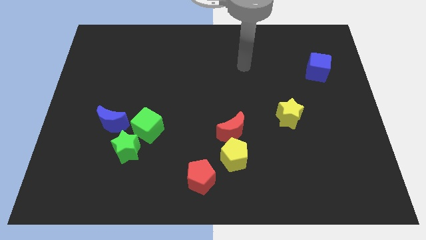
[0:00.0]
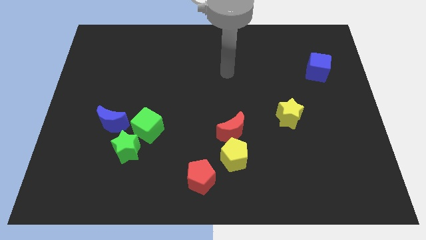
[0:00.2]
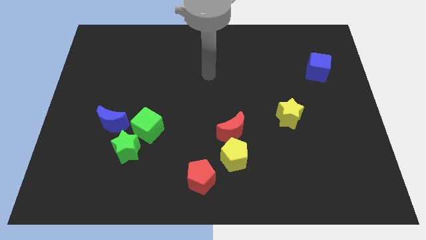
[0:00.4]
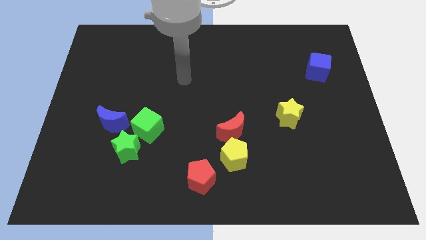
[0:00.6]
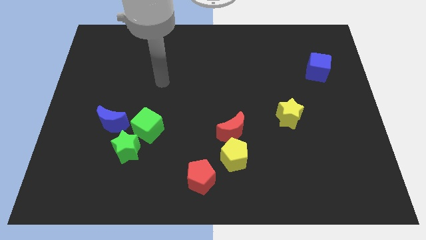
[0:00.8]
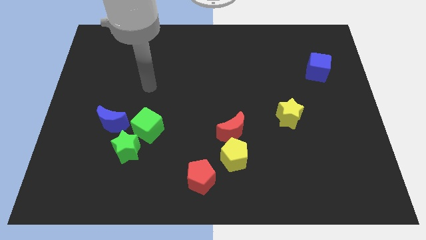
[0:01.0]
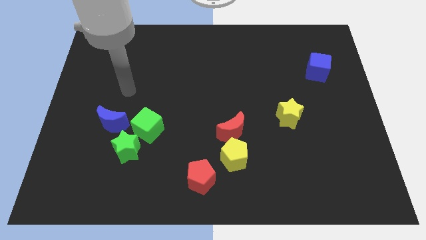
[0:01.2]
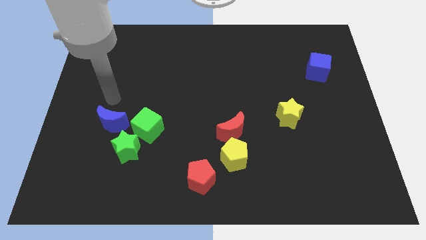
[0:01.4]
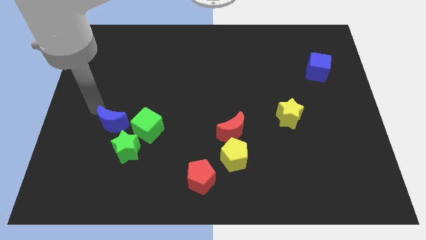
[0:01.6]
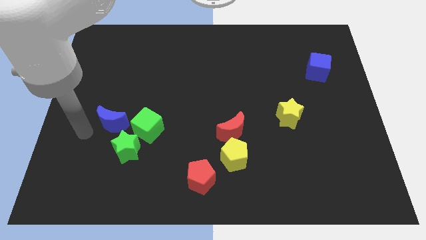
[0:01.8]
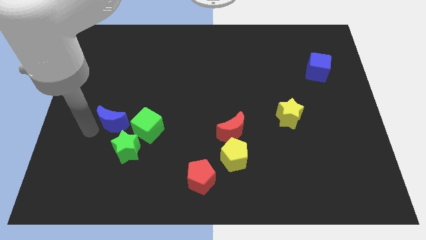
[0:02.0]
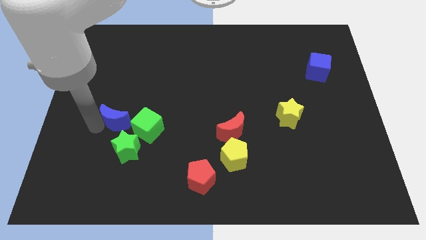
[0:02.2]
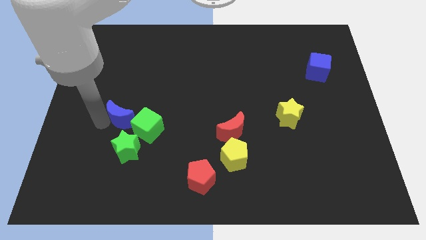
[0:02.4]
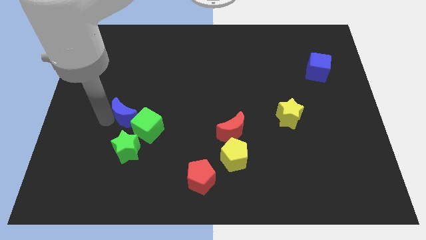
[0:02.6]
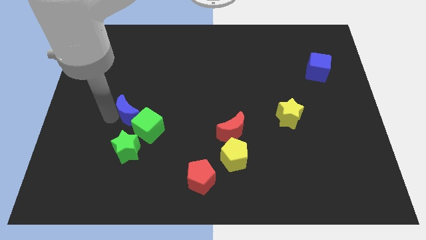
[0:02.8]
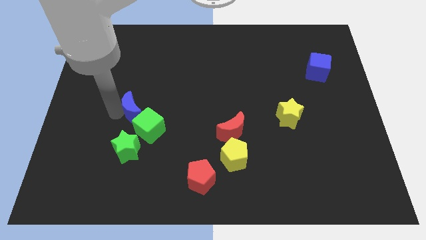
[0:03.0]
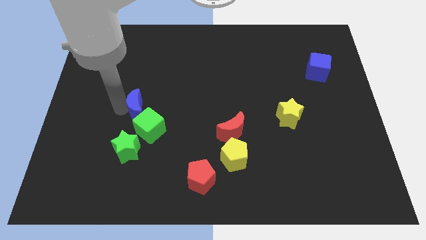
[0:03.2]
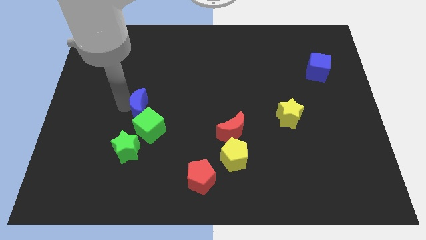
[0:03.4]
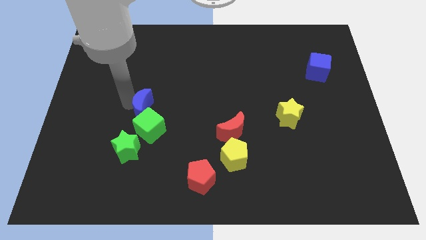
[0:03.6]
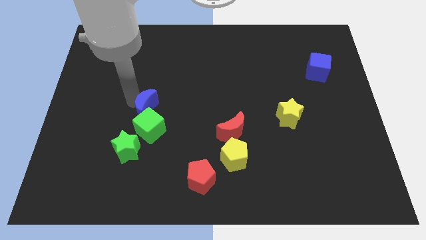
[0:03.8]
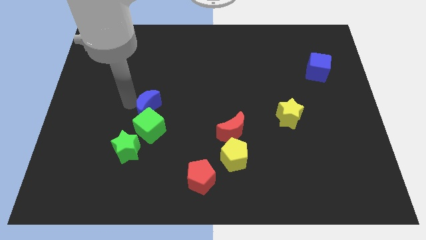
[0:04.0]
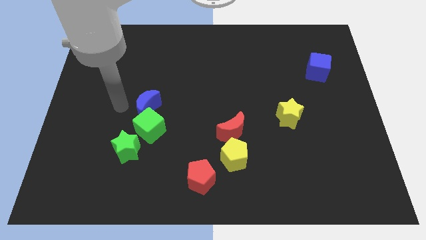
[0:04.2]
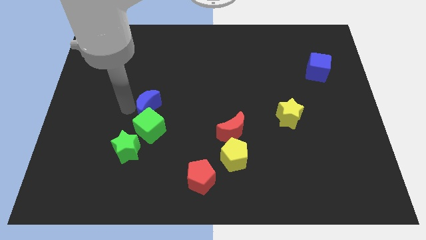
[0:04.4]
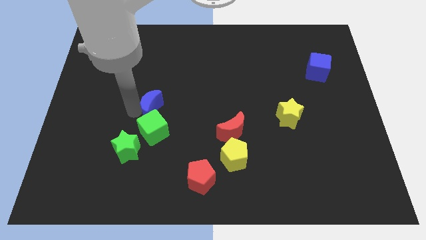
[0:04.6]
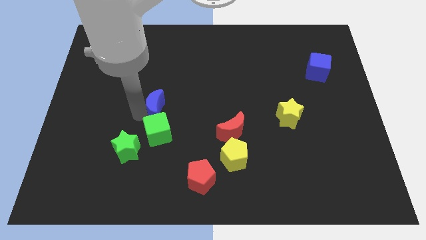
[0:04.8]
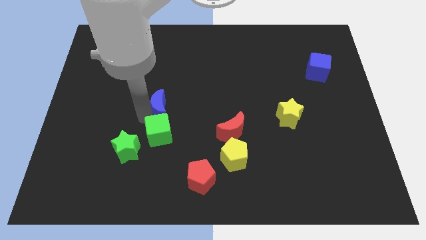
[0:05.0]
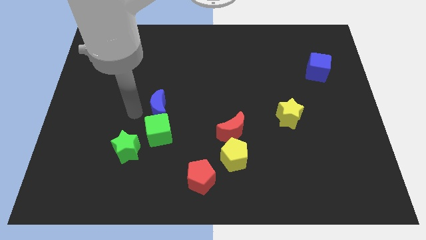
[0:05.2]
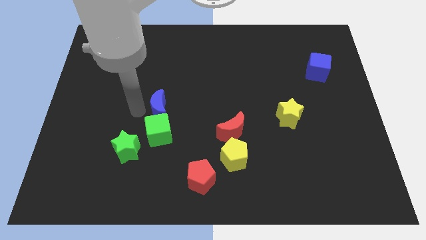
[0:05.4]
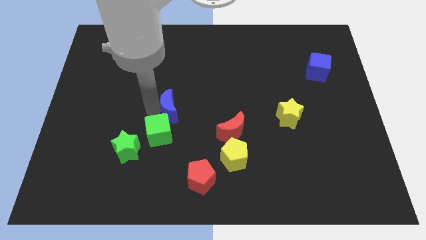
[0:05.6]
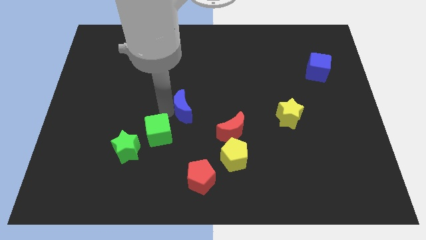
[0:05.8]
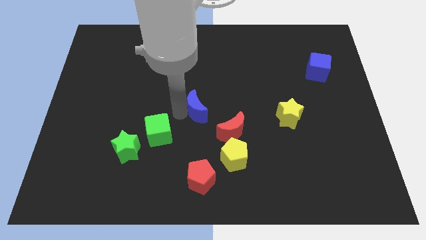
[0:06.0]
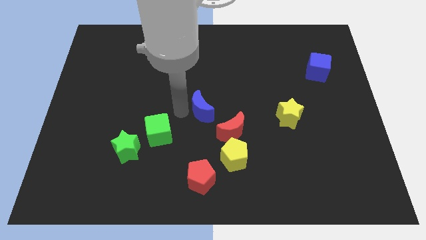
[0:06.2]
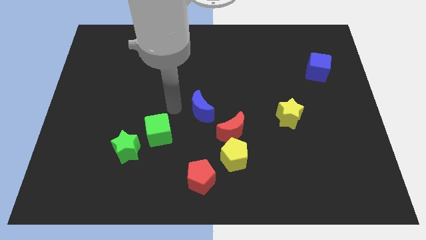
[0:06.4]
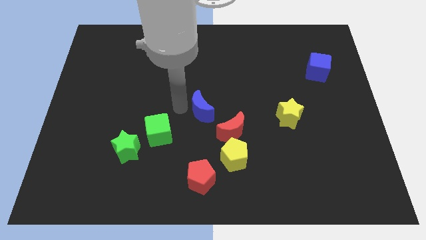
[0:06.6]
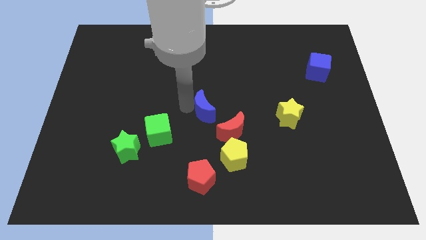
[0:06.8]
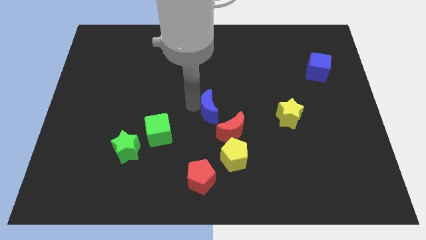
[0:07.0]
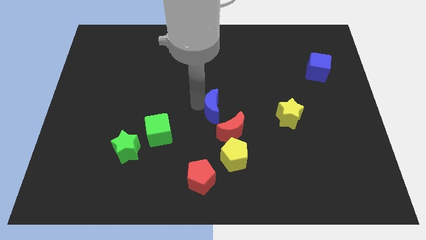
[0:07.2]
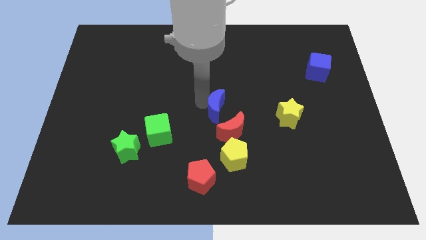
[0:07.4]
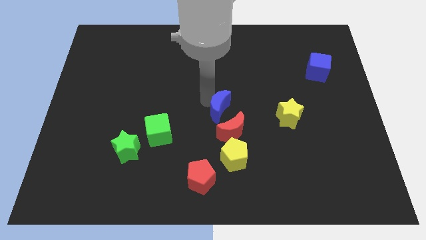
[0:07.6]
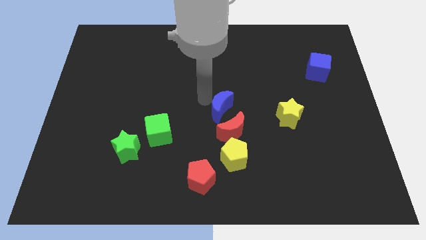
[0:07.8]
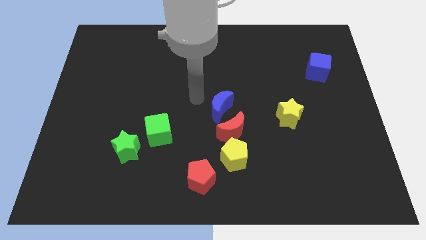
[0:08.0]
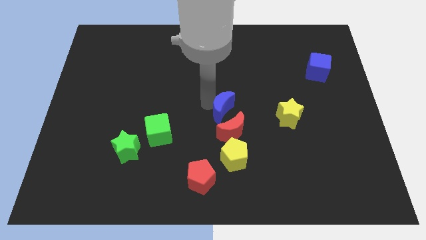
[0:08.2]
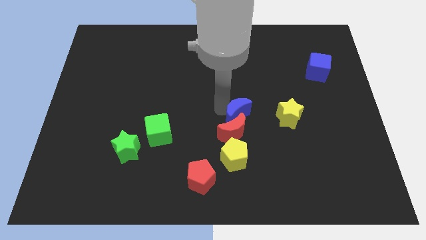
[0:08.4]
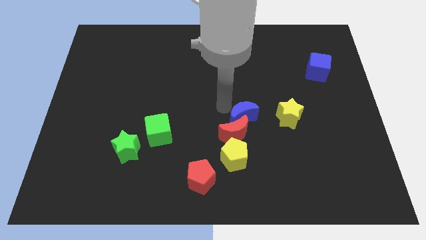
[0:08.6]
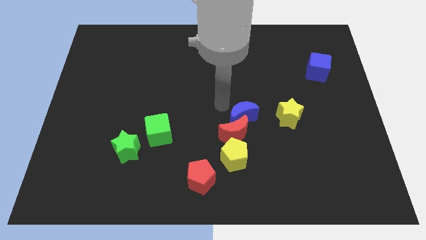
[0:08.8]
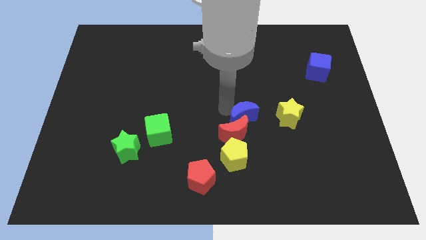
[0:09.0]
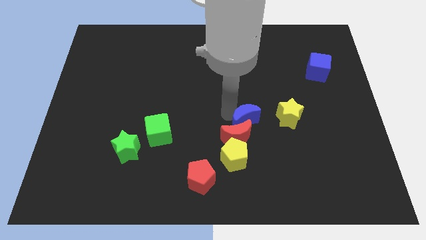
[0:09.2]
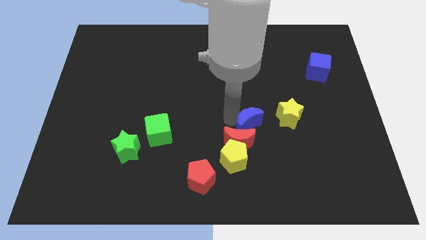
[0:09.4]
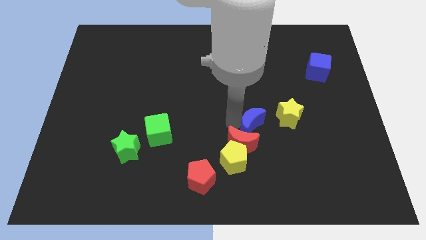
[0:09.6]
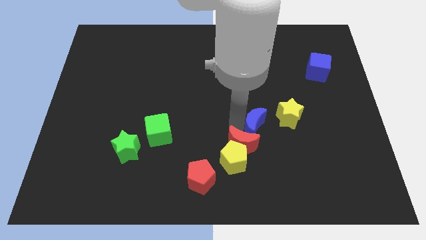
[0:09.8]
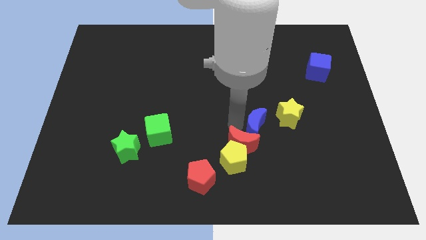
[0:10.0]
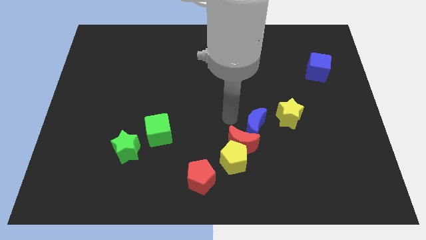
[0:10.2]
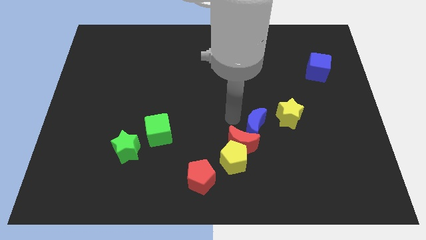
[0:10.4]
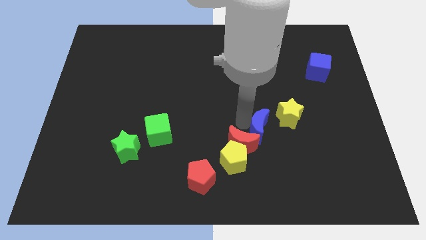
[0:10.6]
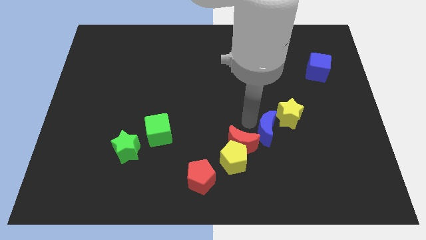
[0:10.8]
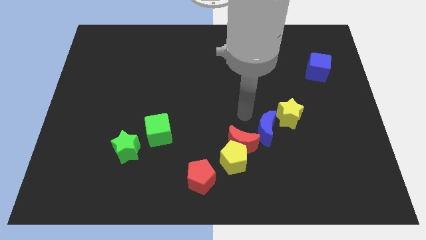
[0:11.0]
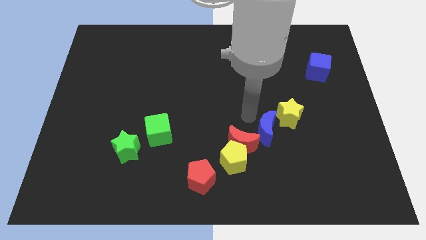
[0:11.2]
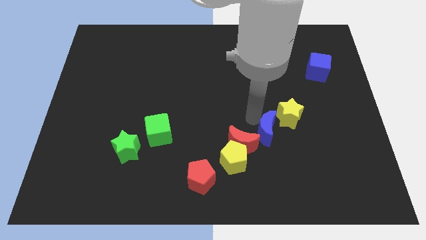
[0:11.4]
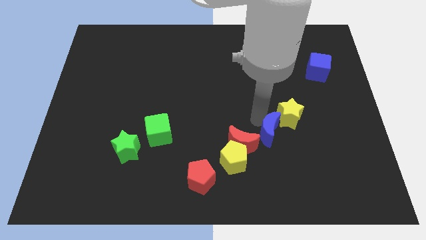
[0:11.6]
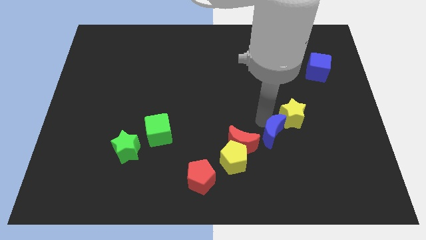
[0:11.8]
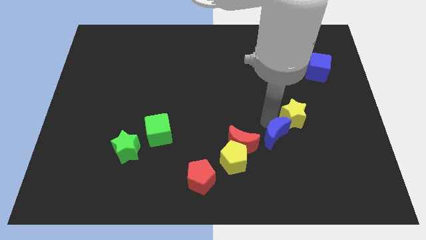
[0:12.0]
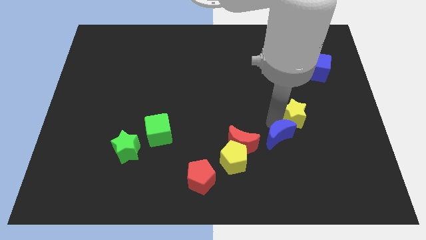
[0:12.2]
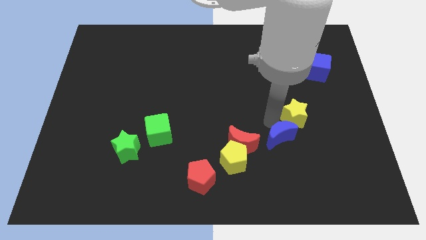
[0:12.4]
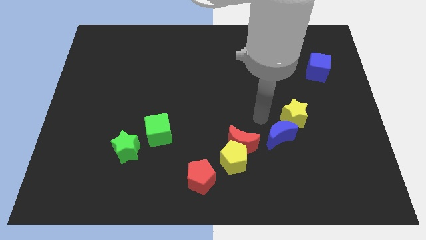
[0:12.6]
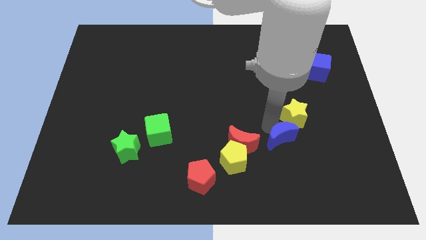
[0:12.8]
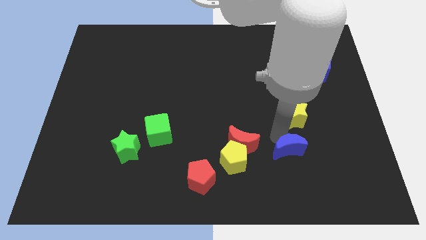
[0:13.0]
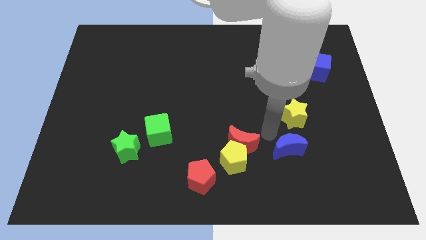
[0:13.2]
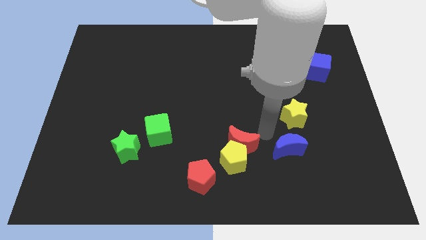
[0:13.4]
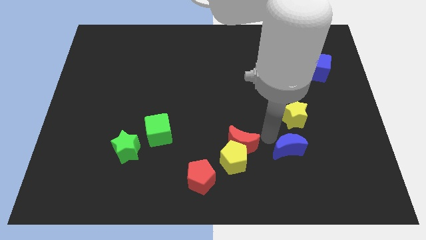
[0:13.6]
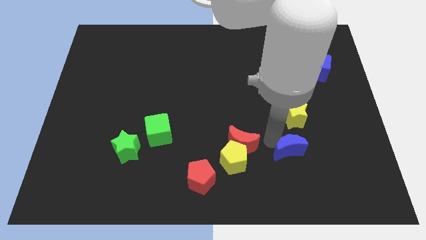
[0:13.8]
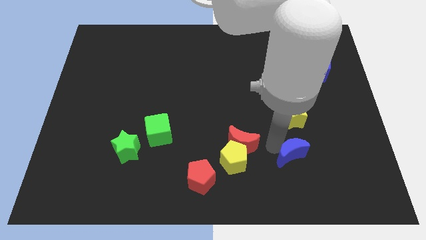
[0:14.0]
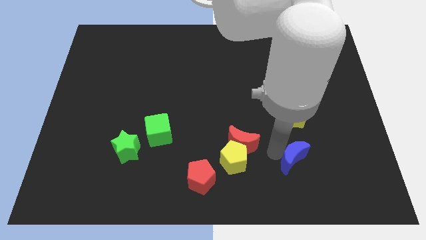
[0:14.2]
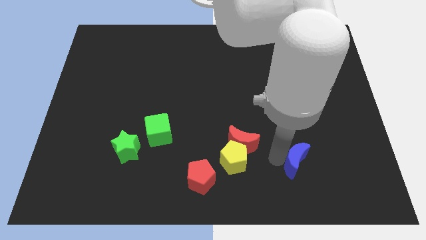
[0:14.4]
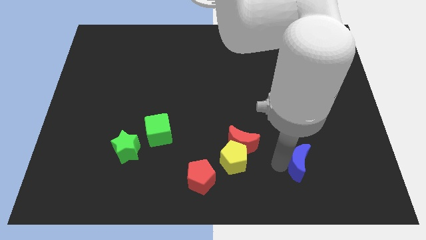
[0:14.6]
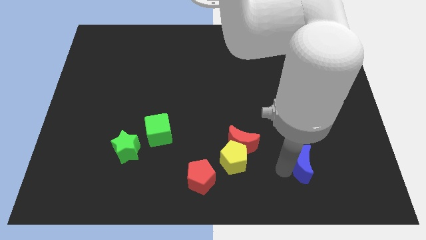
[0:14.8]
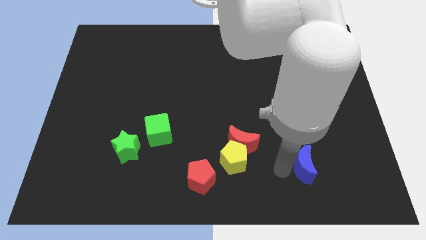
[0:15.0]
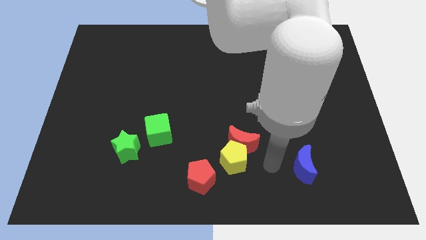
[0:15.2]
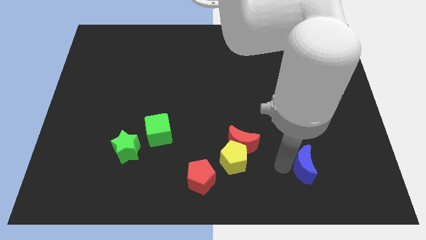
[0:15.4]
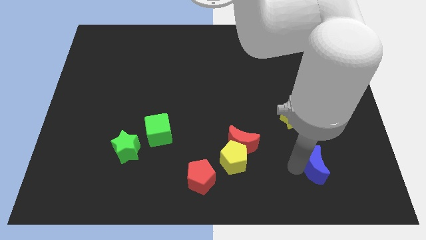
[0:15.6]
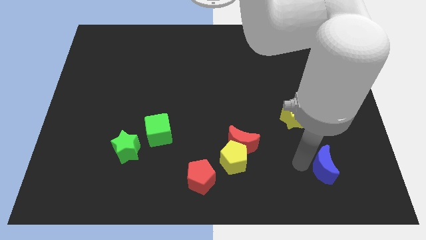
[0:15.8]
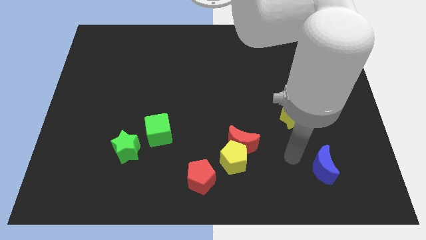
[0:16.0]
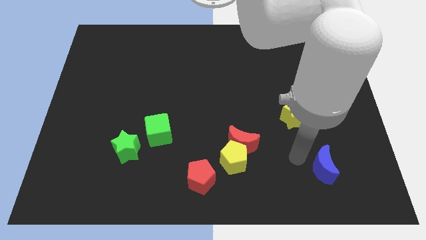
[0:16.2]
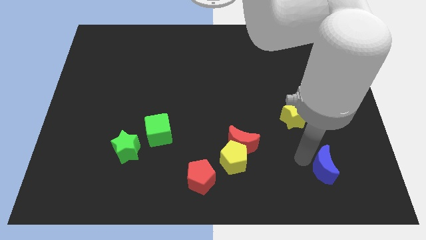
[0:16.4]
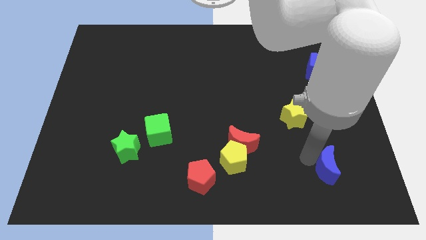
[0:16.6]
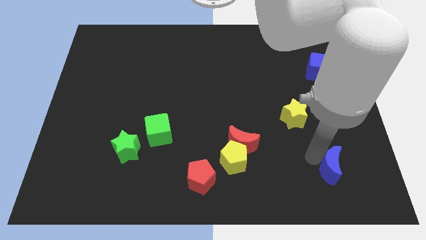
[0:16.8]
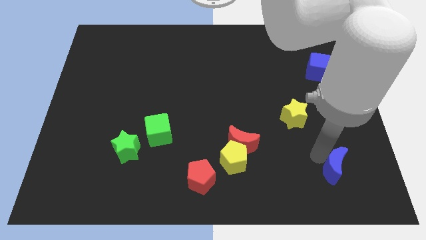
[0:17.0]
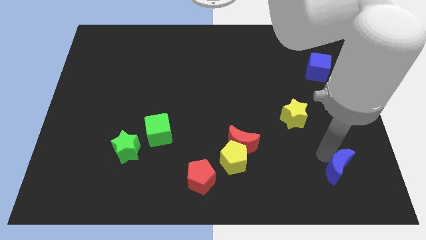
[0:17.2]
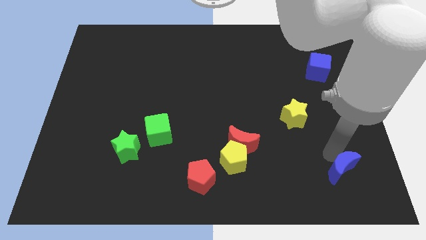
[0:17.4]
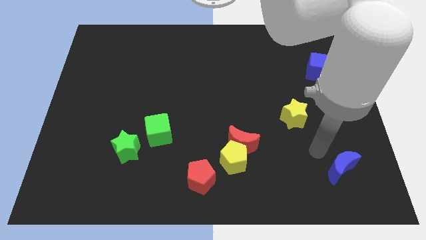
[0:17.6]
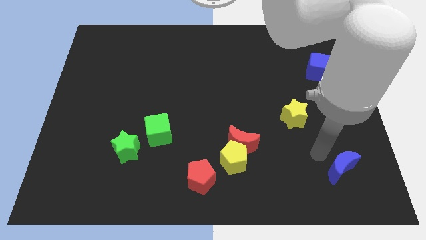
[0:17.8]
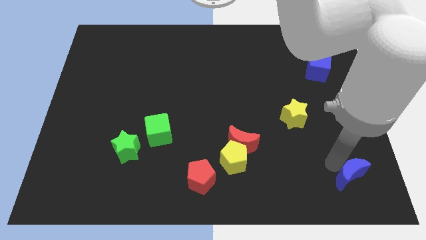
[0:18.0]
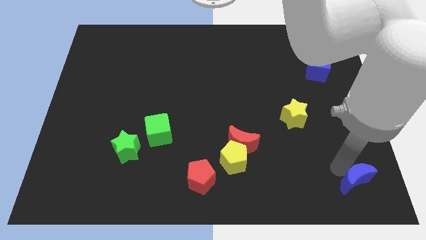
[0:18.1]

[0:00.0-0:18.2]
slide the blue moon to the bottom right of the board
